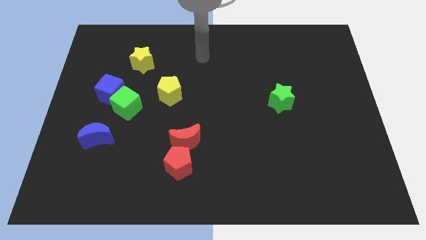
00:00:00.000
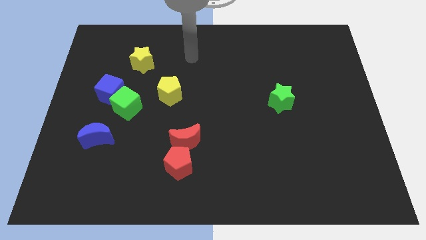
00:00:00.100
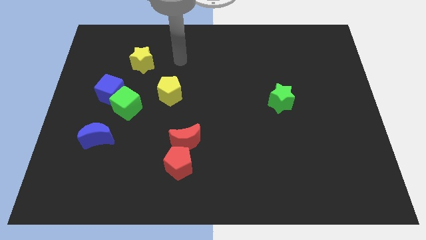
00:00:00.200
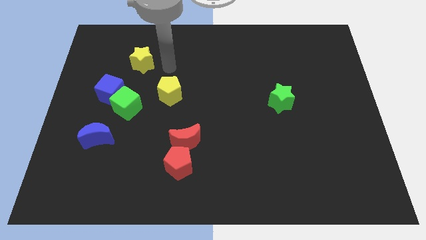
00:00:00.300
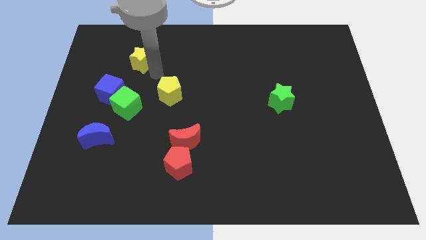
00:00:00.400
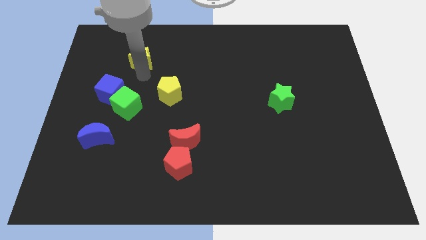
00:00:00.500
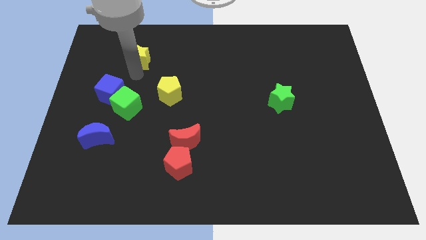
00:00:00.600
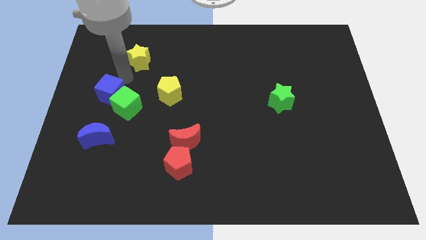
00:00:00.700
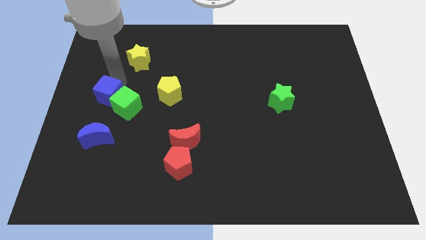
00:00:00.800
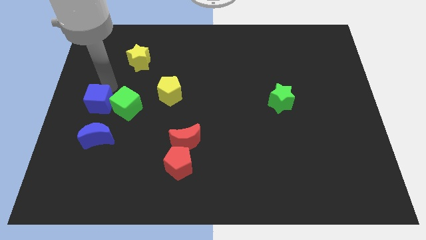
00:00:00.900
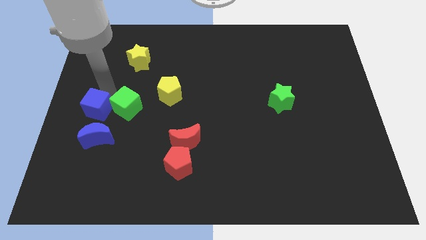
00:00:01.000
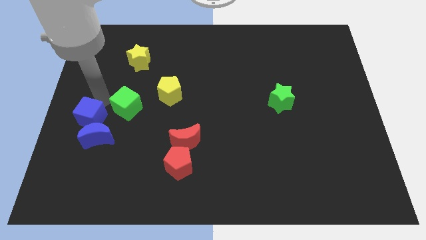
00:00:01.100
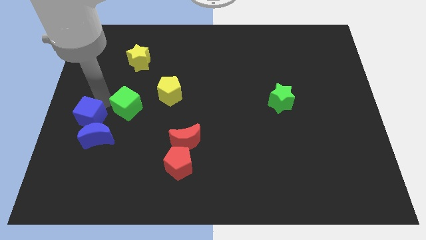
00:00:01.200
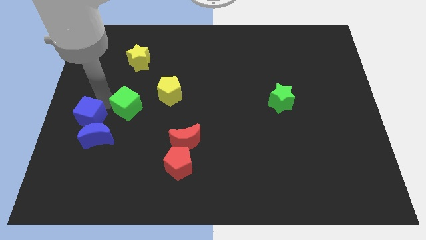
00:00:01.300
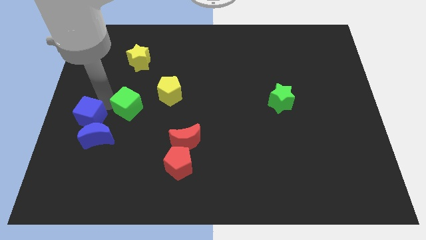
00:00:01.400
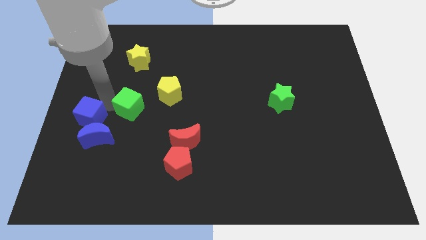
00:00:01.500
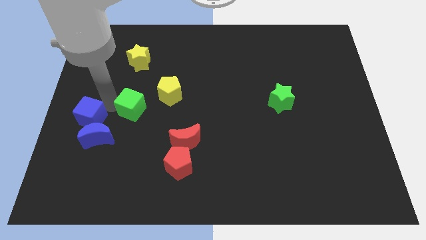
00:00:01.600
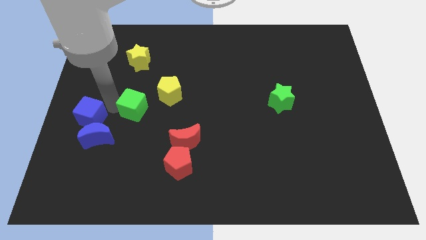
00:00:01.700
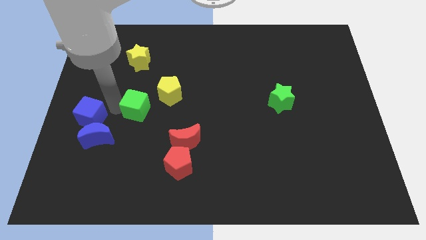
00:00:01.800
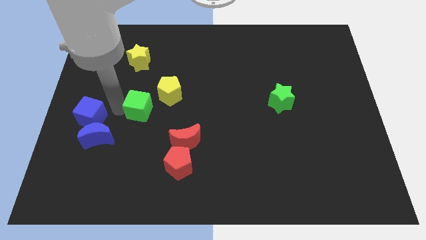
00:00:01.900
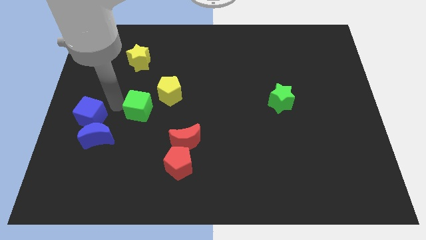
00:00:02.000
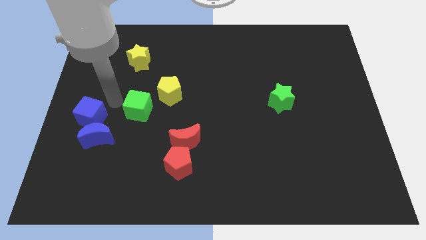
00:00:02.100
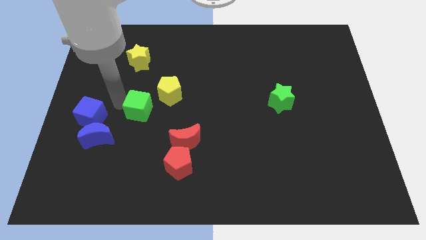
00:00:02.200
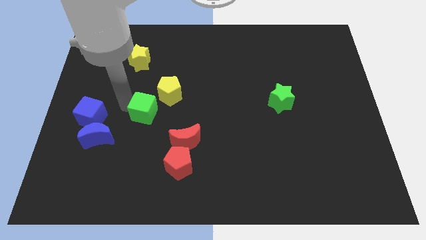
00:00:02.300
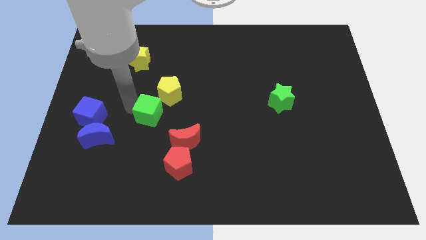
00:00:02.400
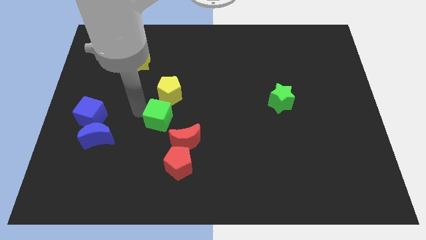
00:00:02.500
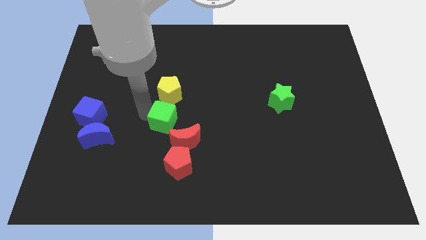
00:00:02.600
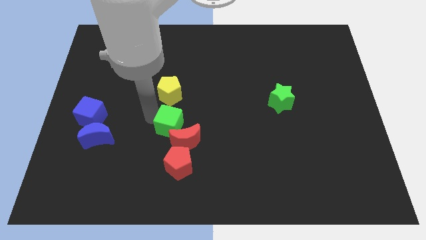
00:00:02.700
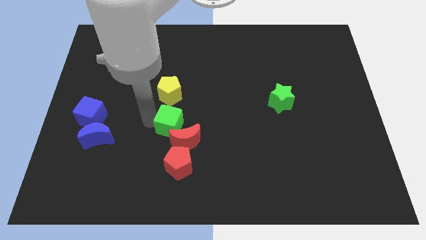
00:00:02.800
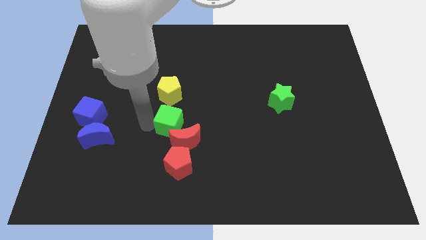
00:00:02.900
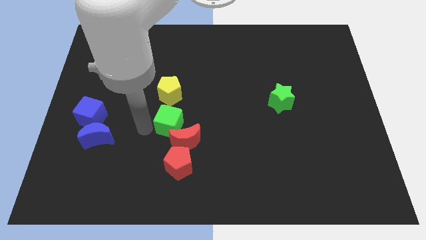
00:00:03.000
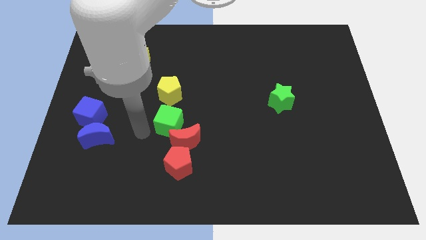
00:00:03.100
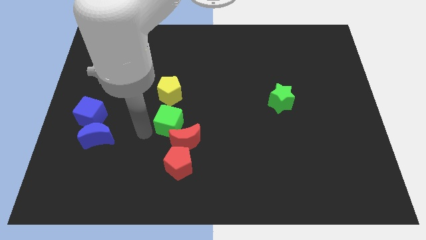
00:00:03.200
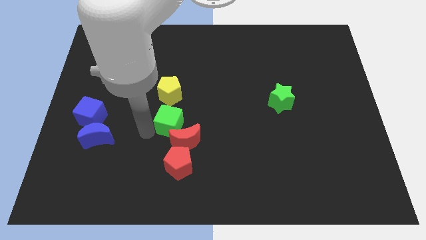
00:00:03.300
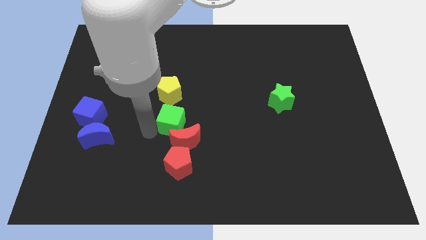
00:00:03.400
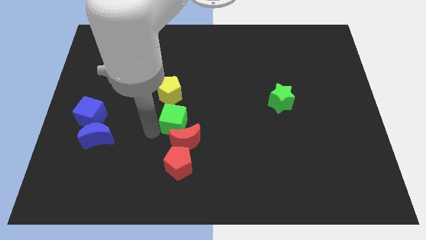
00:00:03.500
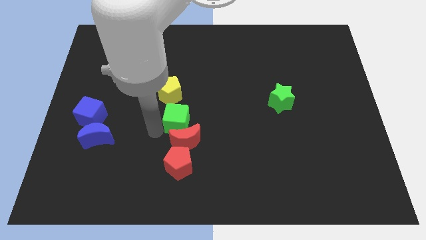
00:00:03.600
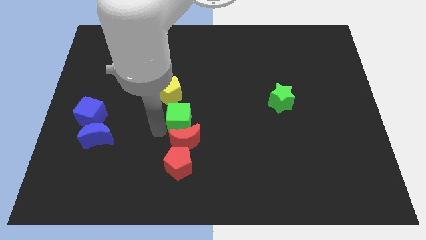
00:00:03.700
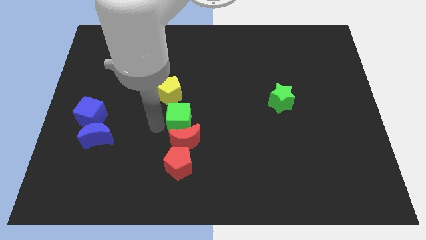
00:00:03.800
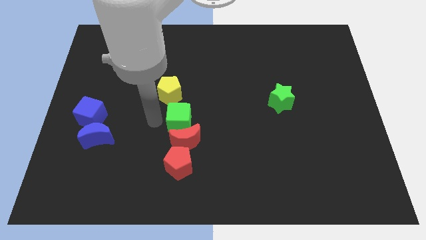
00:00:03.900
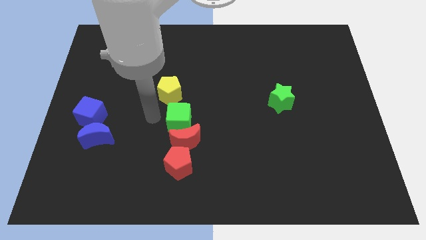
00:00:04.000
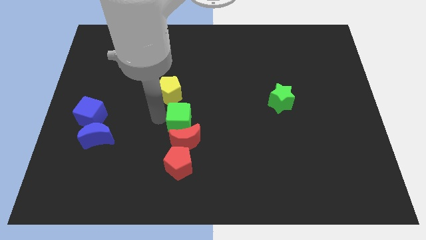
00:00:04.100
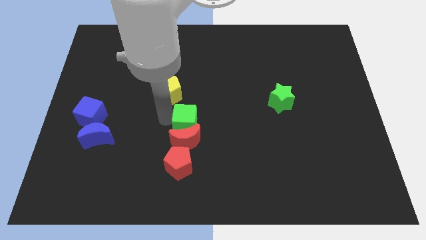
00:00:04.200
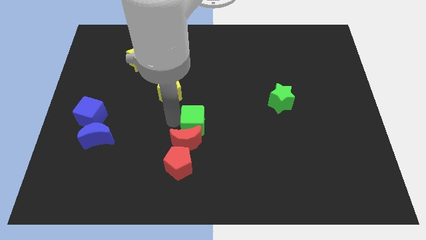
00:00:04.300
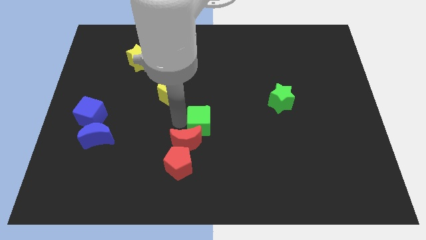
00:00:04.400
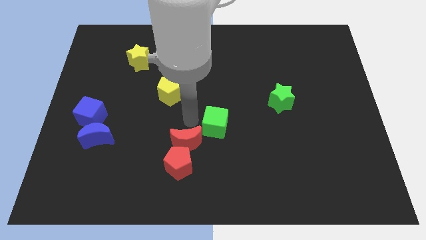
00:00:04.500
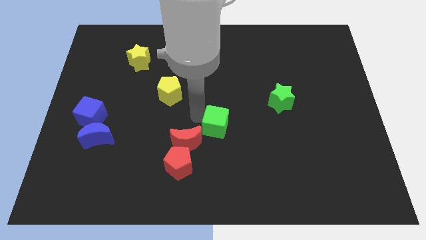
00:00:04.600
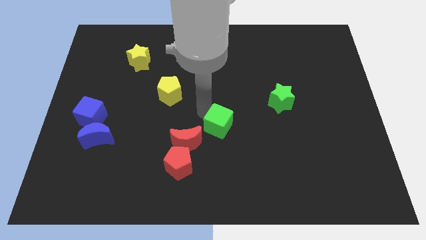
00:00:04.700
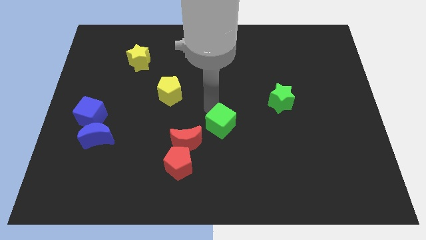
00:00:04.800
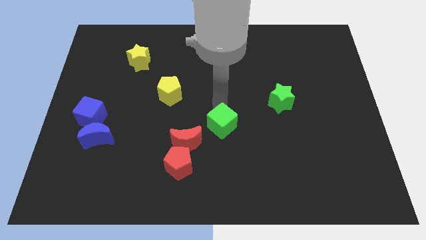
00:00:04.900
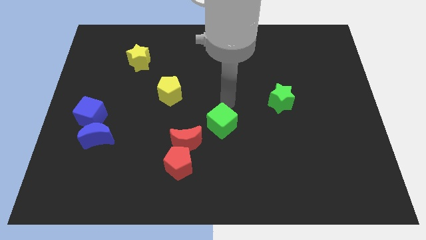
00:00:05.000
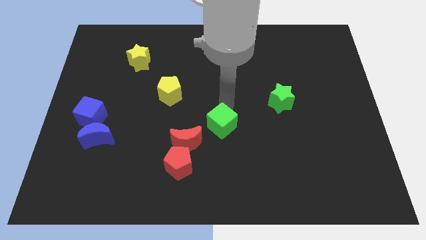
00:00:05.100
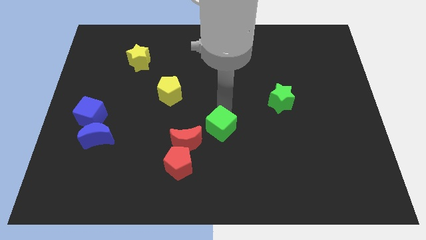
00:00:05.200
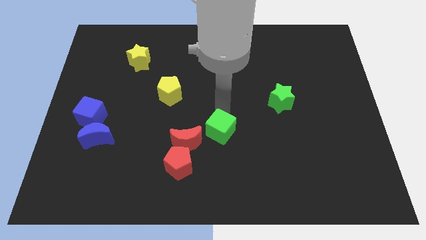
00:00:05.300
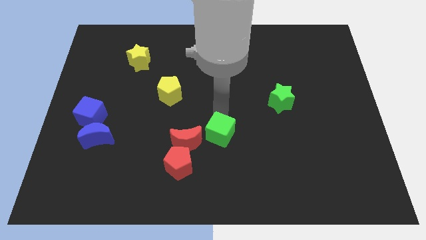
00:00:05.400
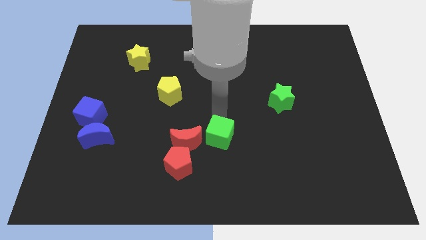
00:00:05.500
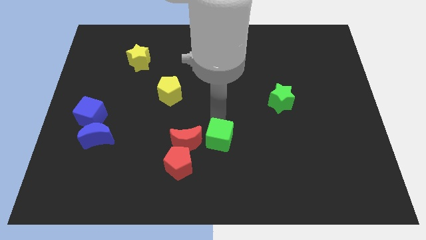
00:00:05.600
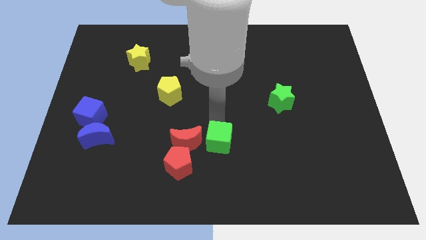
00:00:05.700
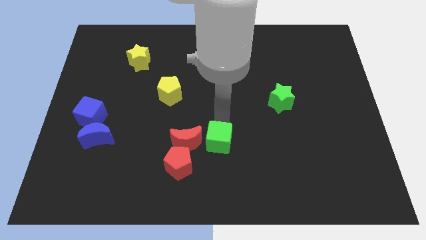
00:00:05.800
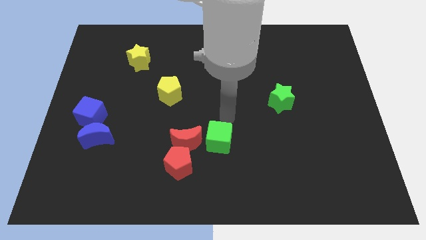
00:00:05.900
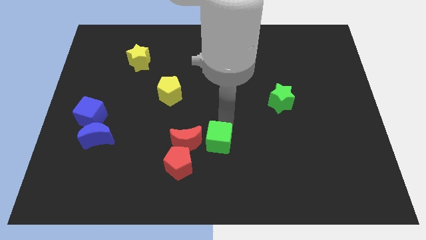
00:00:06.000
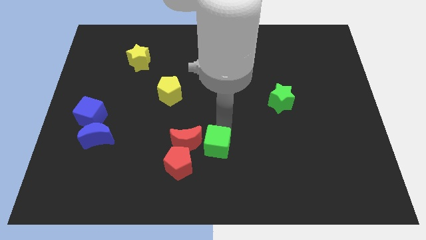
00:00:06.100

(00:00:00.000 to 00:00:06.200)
move the green cube to the bottom right side of the red moon

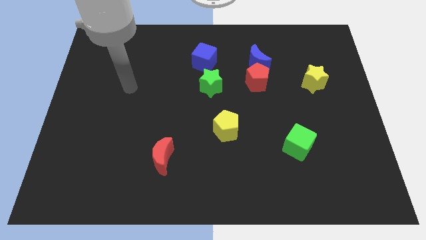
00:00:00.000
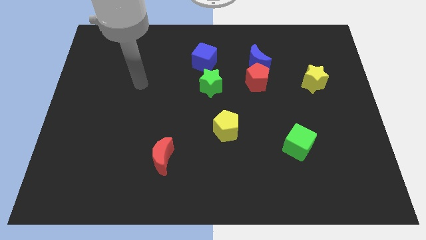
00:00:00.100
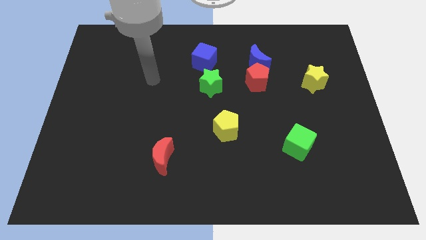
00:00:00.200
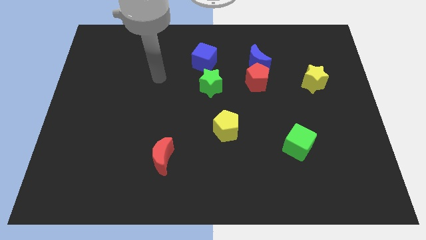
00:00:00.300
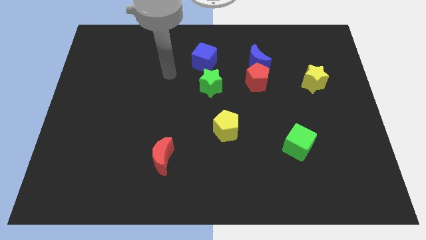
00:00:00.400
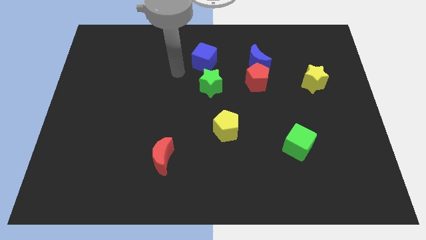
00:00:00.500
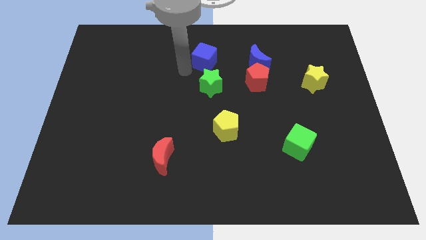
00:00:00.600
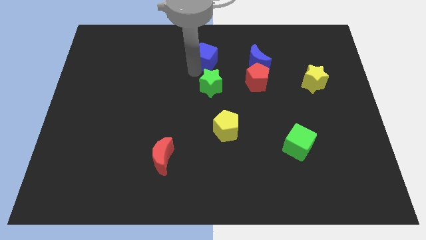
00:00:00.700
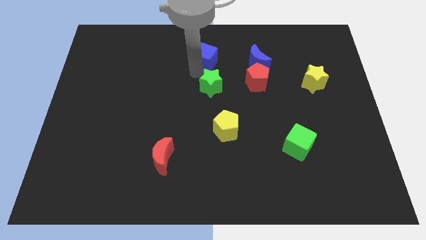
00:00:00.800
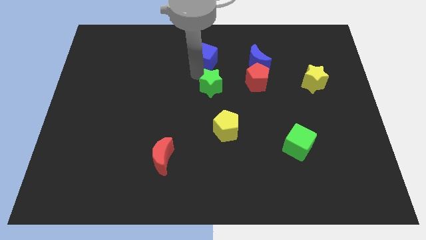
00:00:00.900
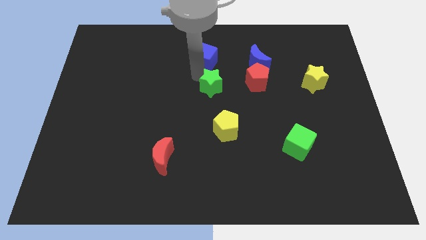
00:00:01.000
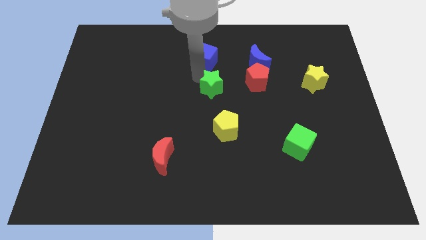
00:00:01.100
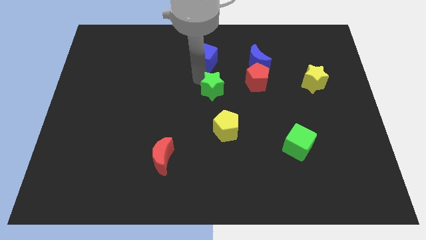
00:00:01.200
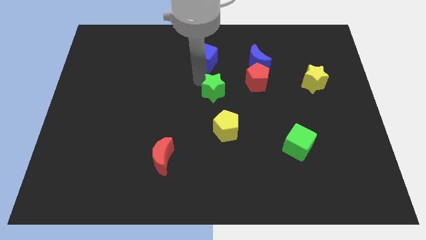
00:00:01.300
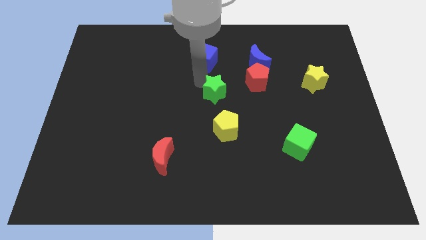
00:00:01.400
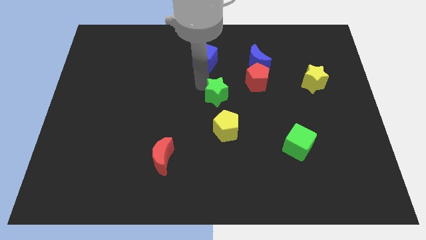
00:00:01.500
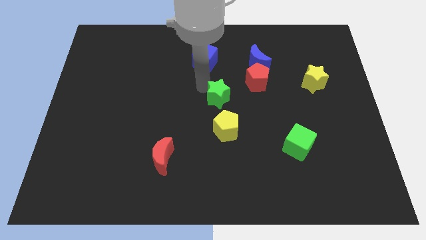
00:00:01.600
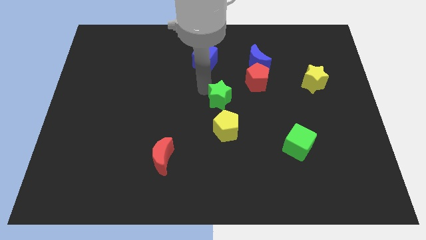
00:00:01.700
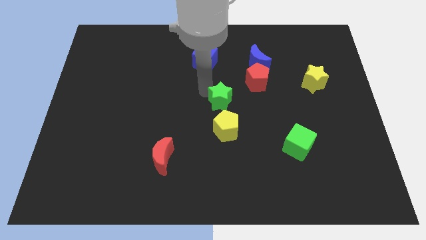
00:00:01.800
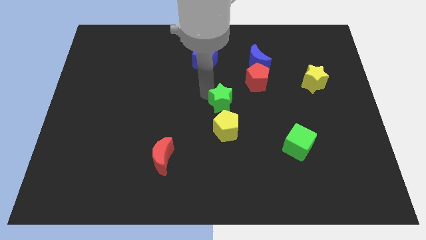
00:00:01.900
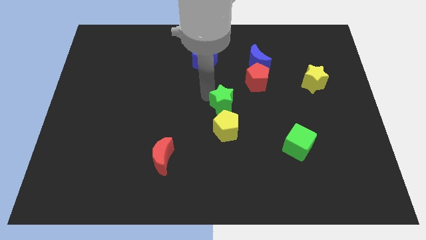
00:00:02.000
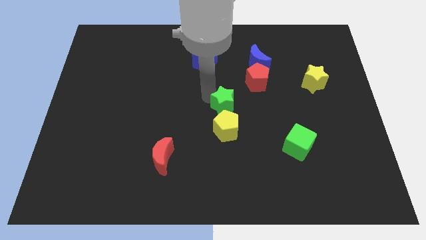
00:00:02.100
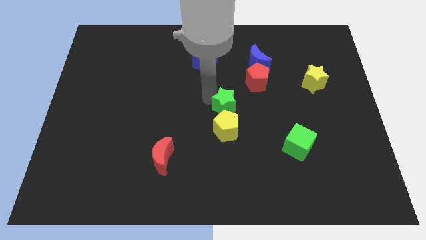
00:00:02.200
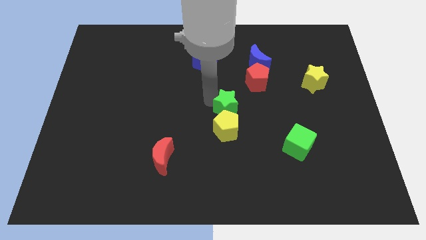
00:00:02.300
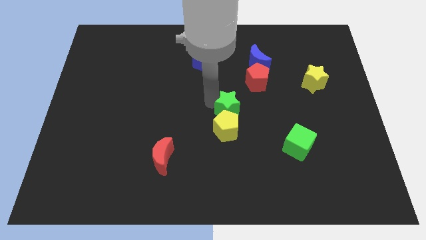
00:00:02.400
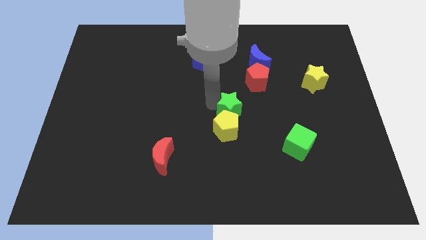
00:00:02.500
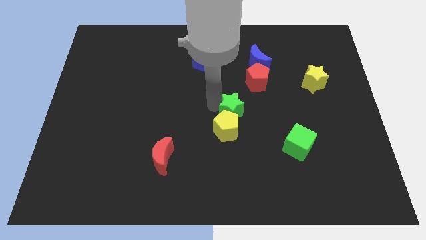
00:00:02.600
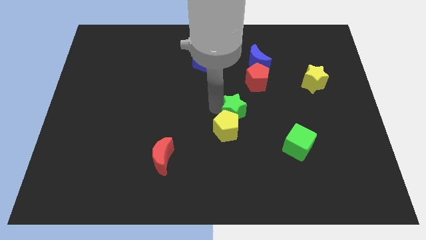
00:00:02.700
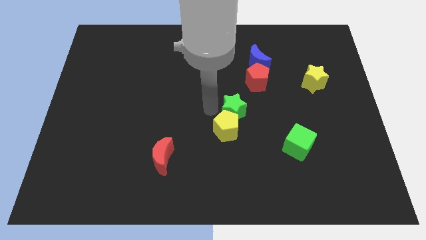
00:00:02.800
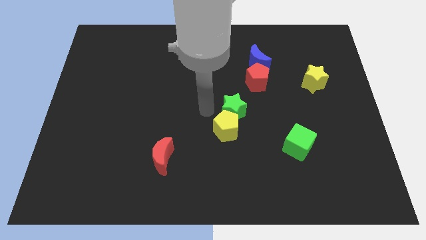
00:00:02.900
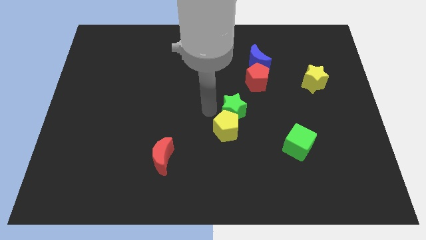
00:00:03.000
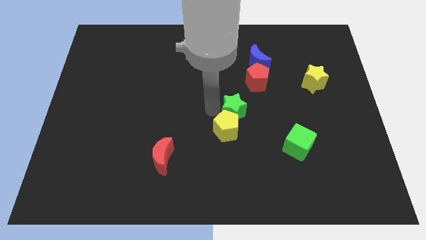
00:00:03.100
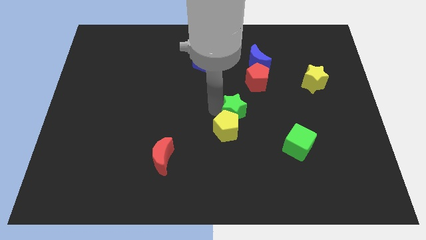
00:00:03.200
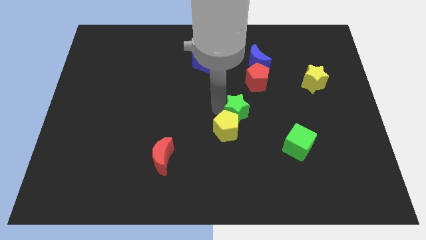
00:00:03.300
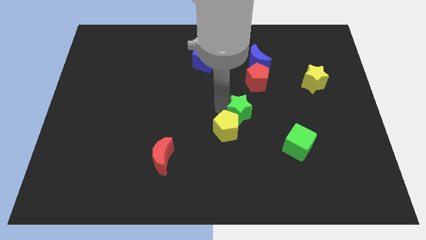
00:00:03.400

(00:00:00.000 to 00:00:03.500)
push the green star to the bottom of the red pentagon
